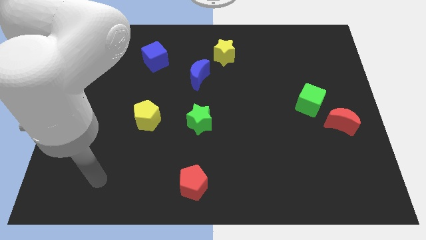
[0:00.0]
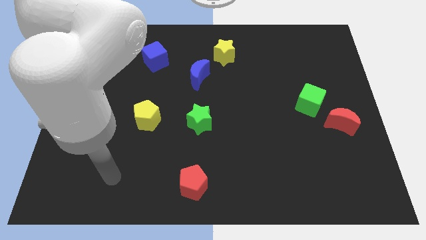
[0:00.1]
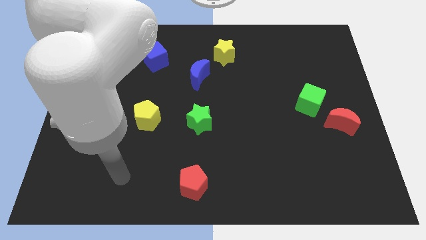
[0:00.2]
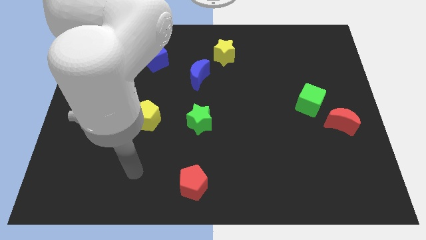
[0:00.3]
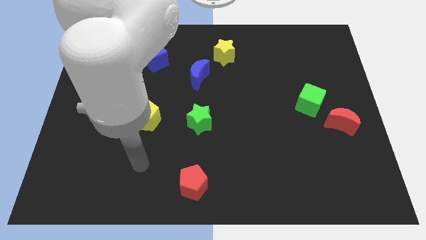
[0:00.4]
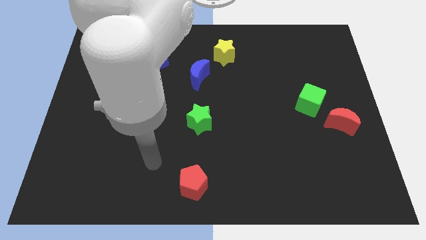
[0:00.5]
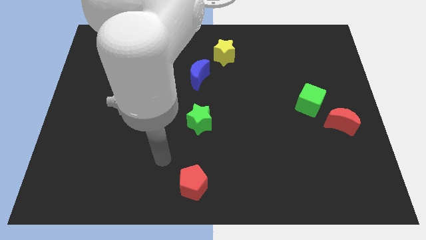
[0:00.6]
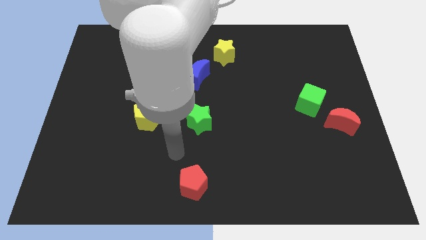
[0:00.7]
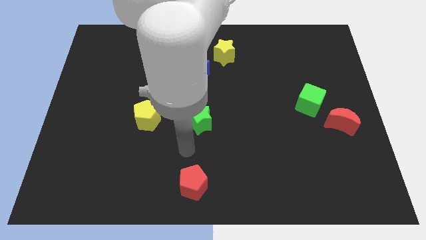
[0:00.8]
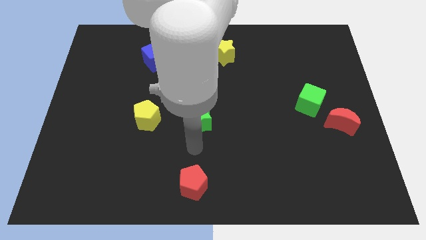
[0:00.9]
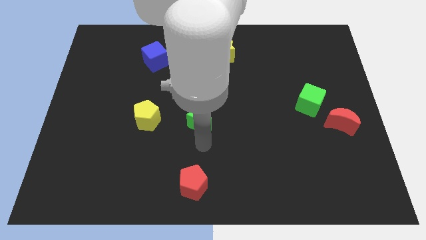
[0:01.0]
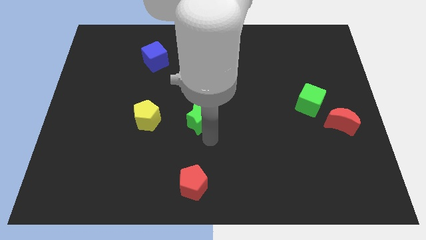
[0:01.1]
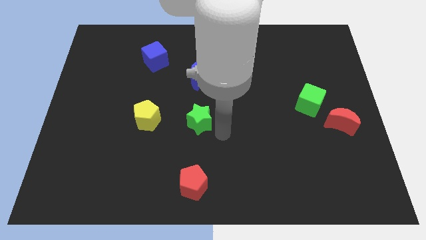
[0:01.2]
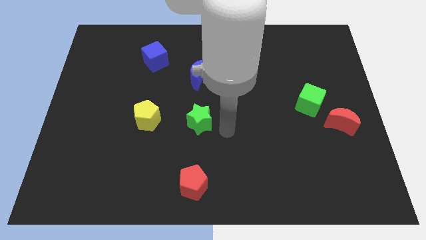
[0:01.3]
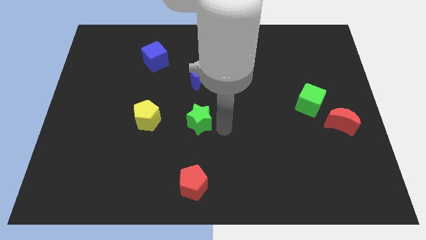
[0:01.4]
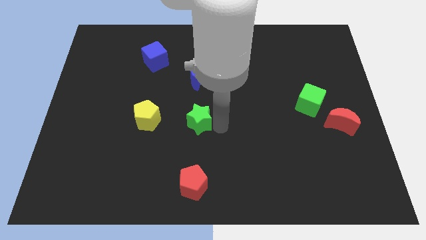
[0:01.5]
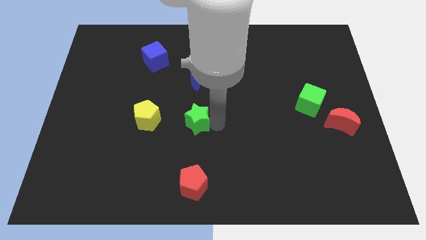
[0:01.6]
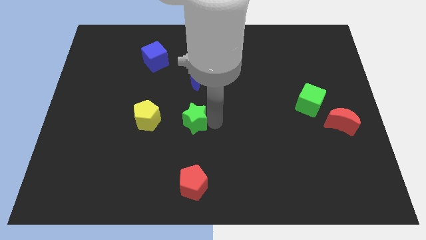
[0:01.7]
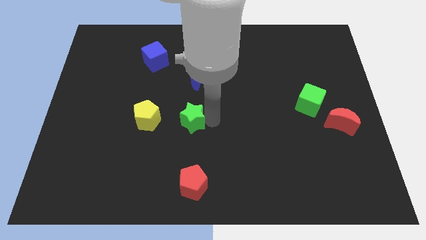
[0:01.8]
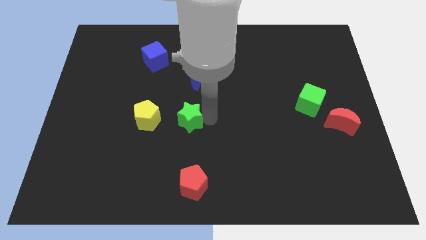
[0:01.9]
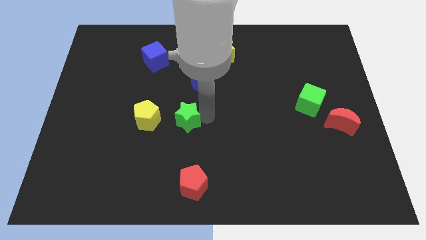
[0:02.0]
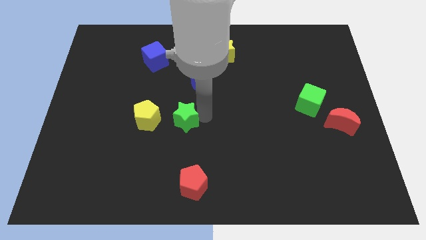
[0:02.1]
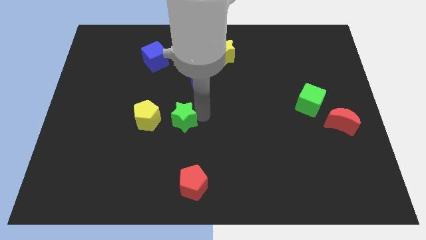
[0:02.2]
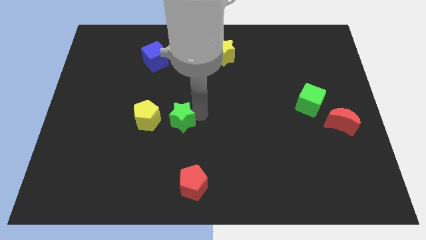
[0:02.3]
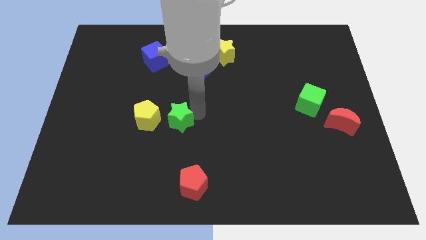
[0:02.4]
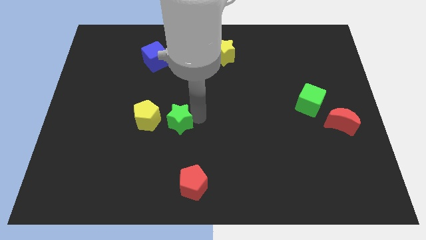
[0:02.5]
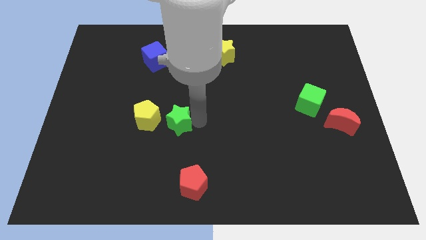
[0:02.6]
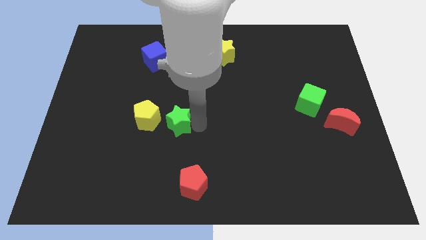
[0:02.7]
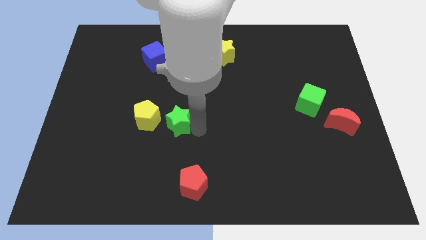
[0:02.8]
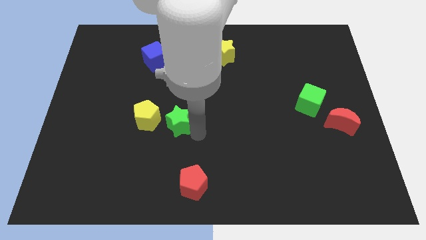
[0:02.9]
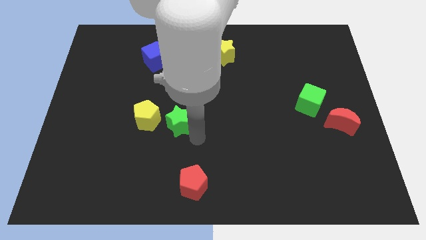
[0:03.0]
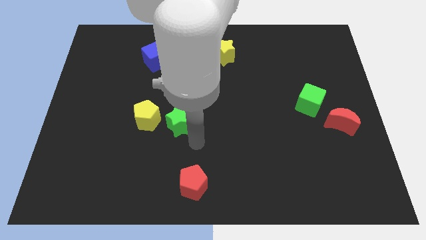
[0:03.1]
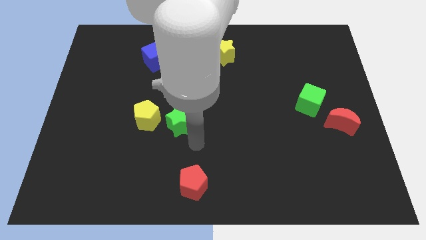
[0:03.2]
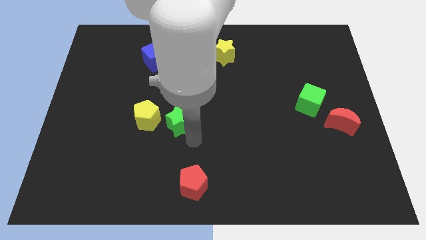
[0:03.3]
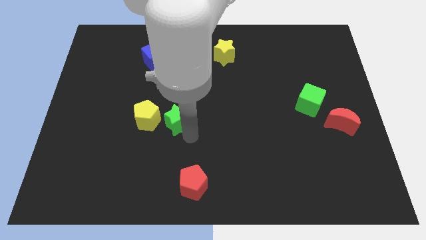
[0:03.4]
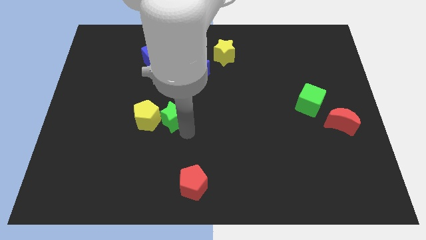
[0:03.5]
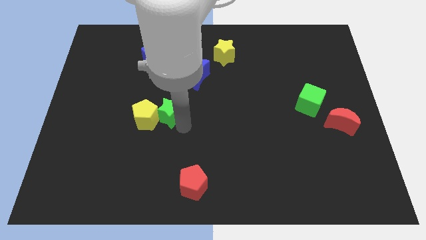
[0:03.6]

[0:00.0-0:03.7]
move the green star slightly left

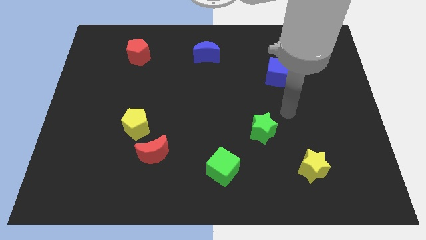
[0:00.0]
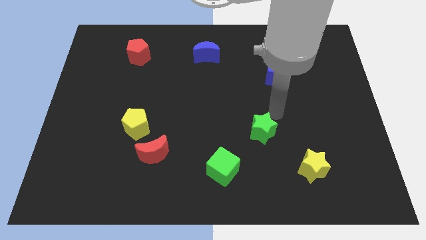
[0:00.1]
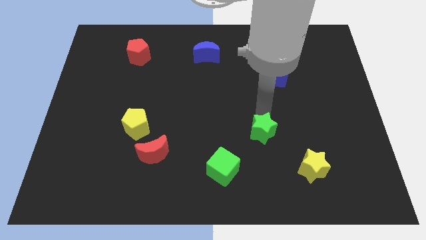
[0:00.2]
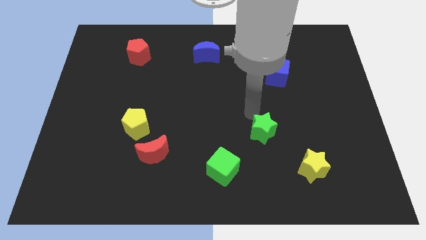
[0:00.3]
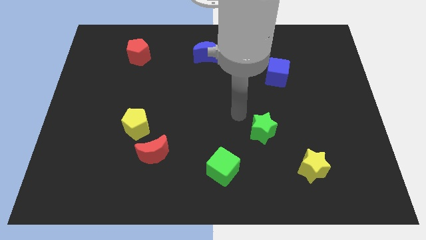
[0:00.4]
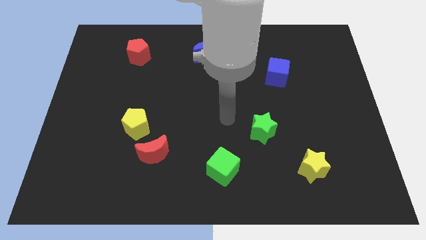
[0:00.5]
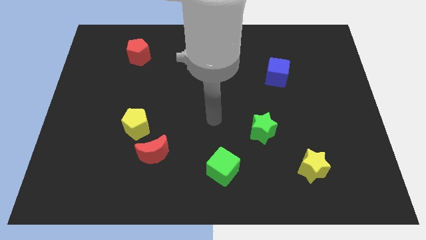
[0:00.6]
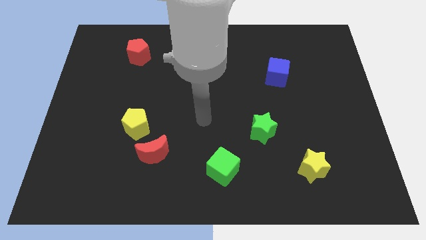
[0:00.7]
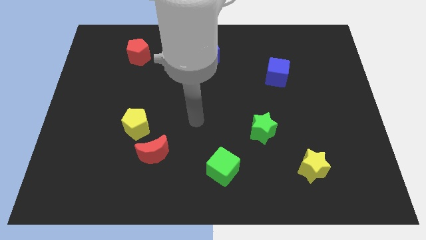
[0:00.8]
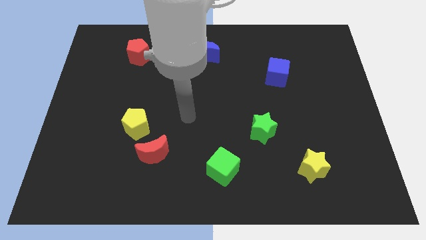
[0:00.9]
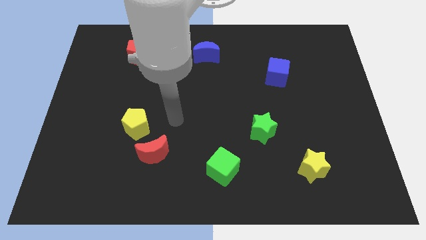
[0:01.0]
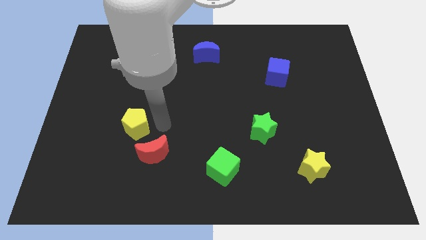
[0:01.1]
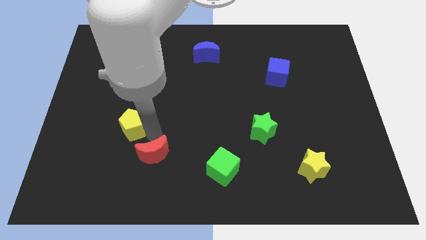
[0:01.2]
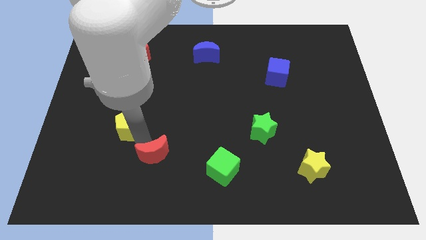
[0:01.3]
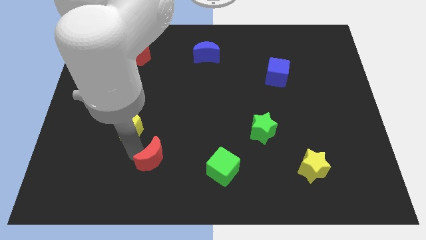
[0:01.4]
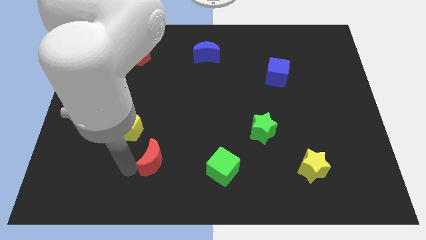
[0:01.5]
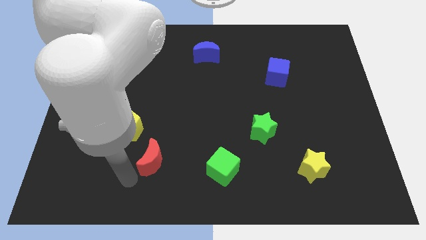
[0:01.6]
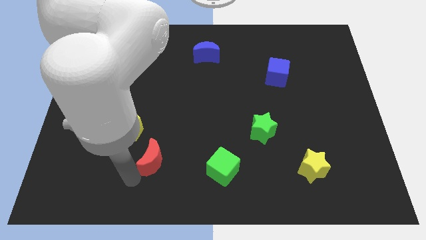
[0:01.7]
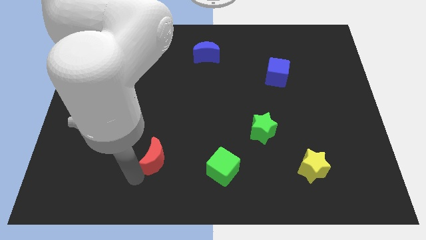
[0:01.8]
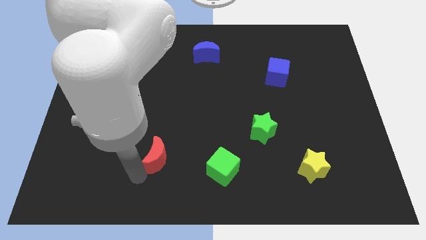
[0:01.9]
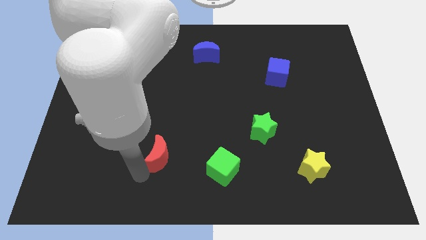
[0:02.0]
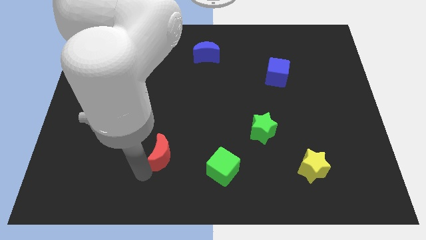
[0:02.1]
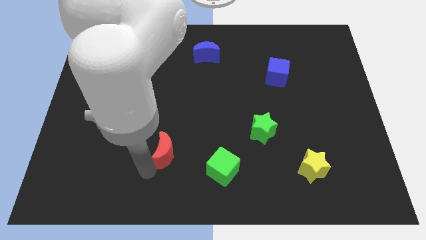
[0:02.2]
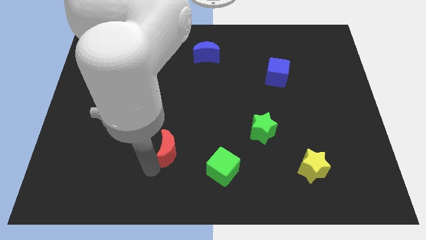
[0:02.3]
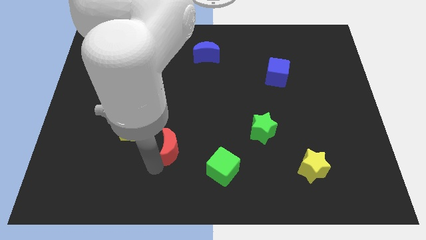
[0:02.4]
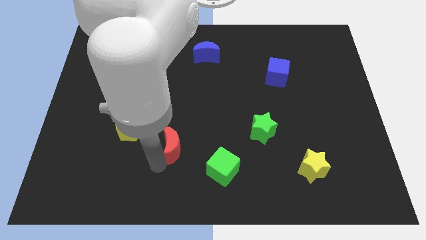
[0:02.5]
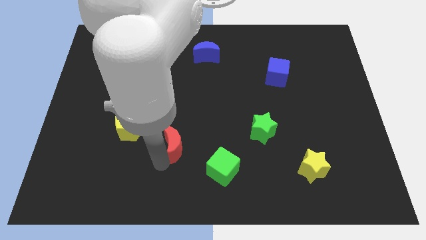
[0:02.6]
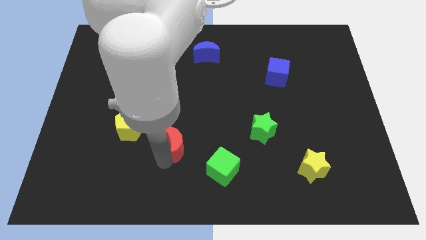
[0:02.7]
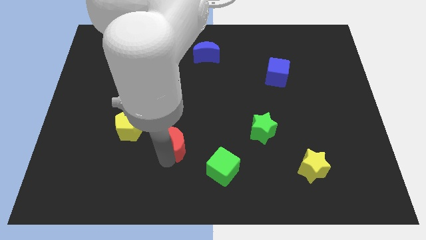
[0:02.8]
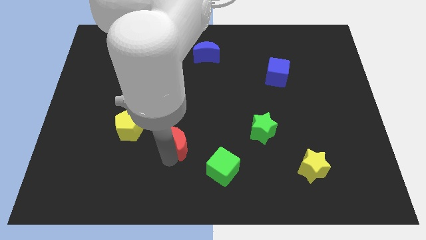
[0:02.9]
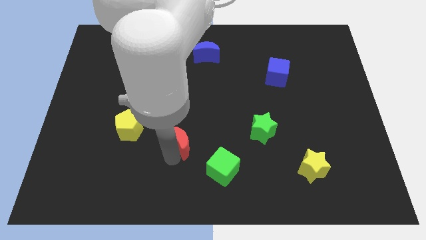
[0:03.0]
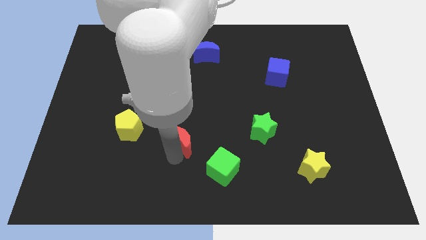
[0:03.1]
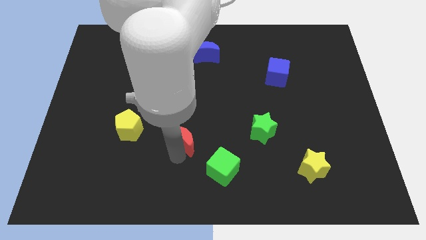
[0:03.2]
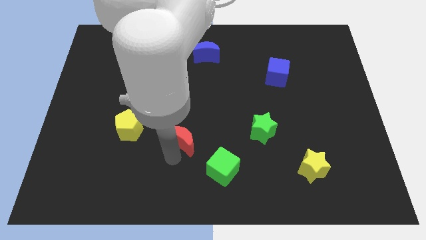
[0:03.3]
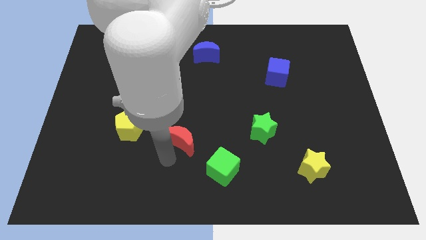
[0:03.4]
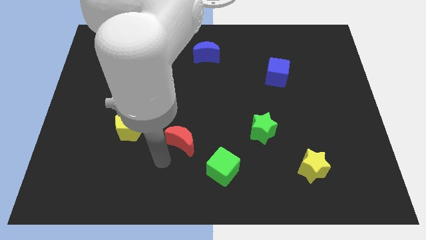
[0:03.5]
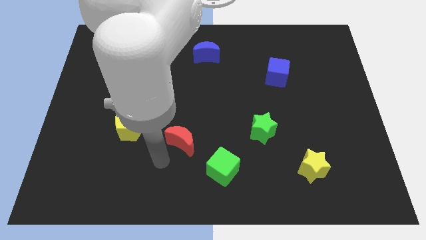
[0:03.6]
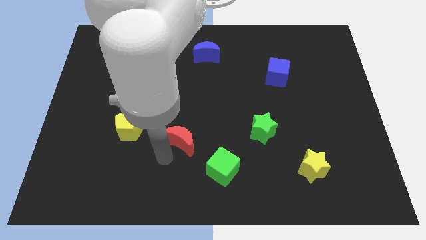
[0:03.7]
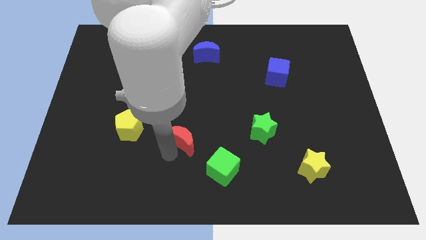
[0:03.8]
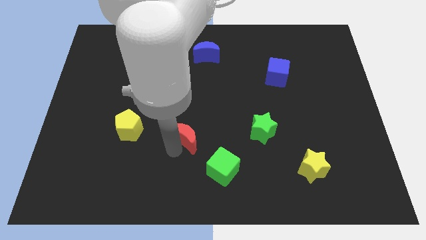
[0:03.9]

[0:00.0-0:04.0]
slightly slide the red moon up and right diagonally
